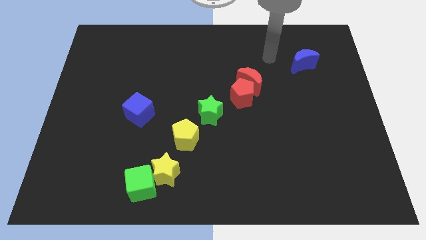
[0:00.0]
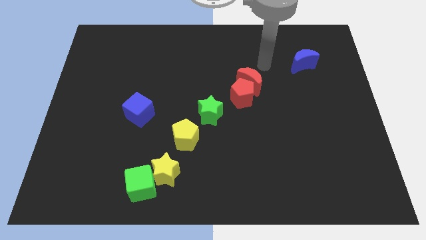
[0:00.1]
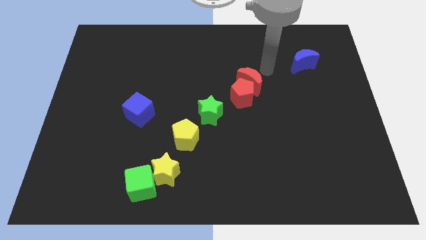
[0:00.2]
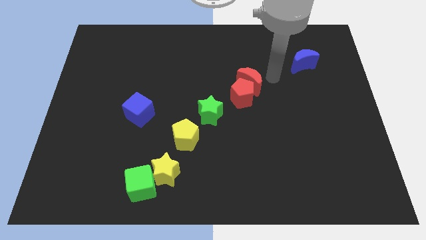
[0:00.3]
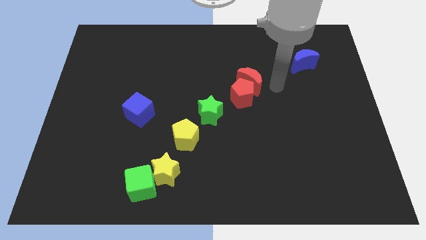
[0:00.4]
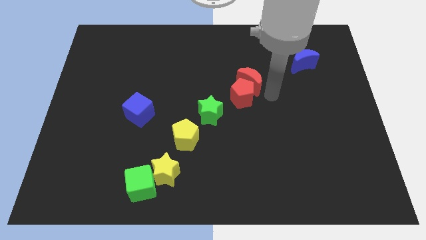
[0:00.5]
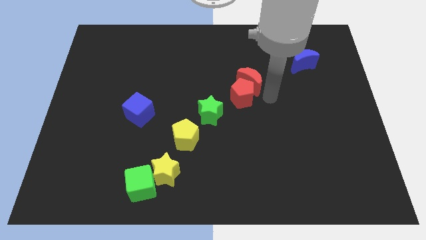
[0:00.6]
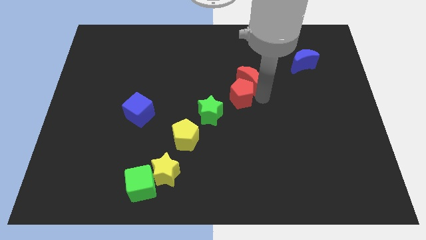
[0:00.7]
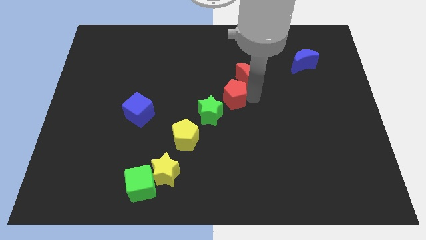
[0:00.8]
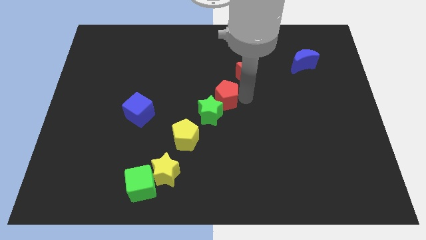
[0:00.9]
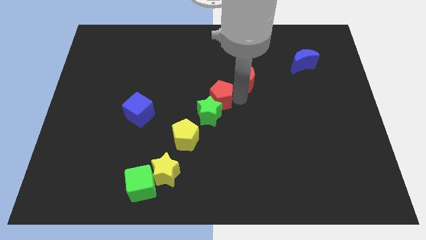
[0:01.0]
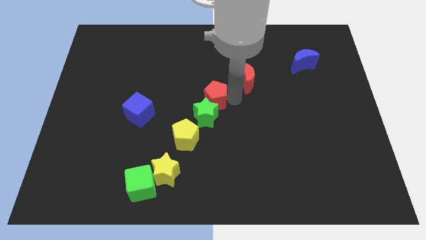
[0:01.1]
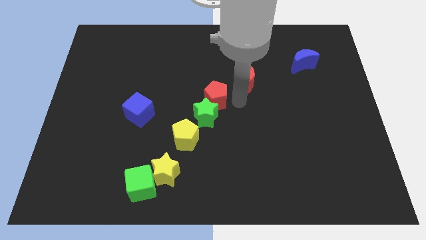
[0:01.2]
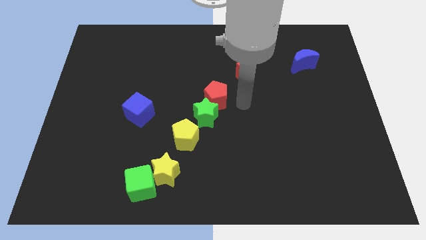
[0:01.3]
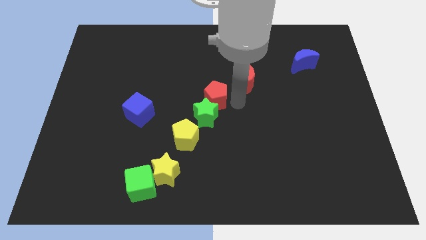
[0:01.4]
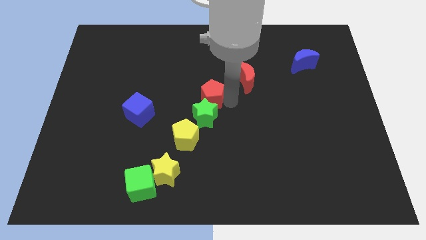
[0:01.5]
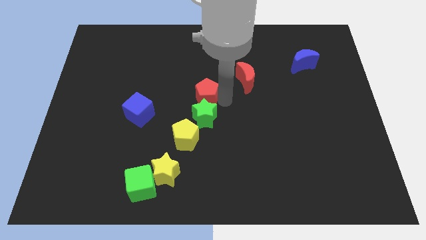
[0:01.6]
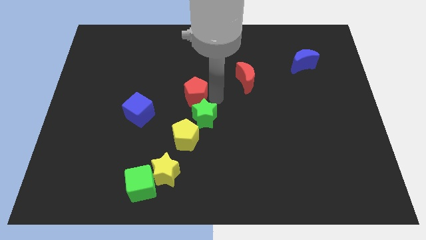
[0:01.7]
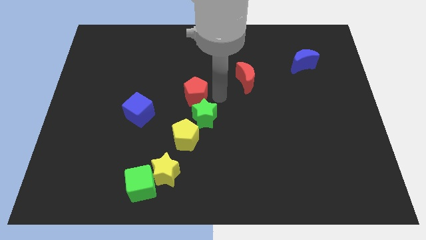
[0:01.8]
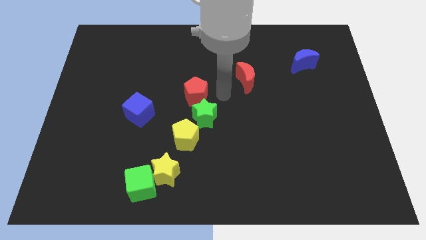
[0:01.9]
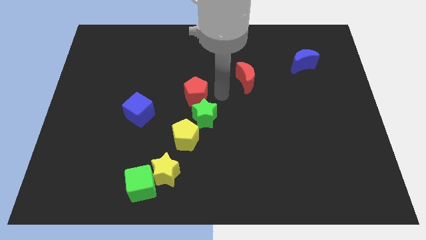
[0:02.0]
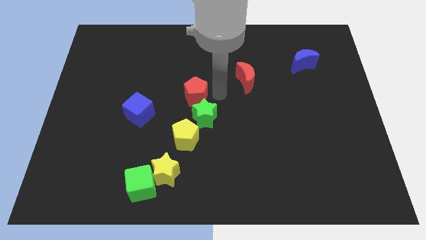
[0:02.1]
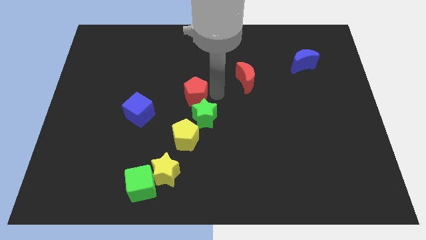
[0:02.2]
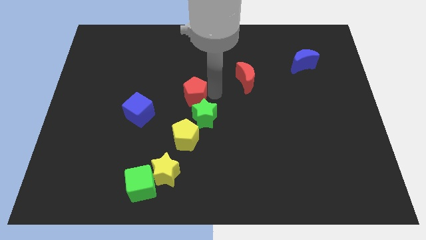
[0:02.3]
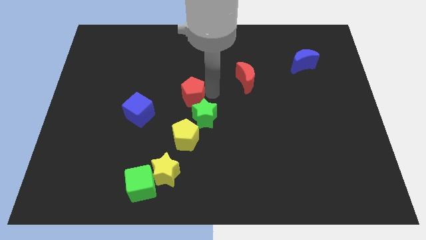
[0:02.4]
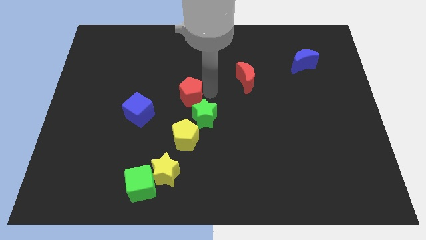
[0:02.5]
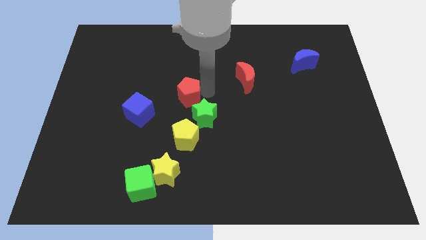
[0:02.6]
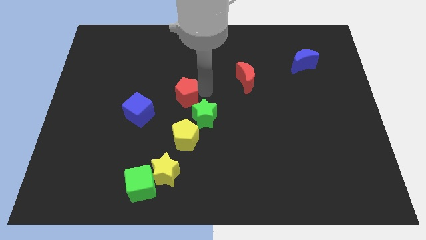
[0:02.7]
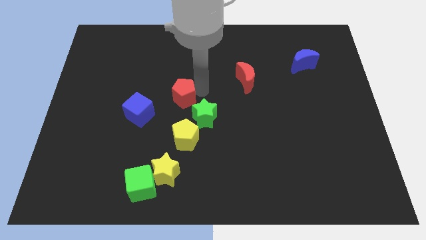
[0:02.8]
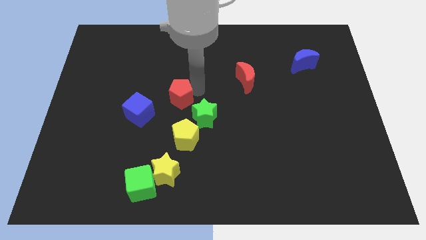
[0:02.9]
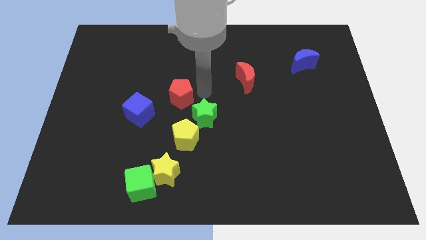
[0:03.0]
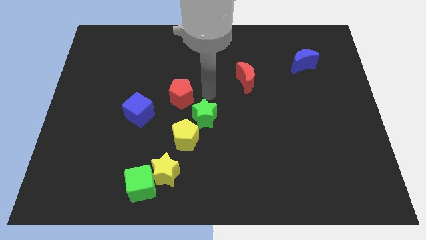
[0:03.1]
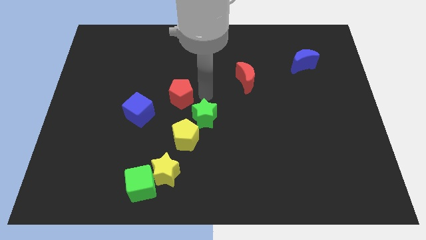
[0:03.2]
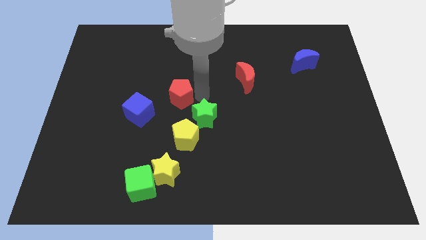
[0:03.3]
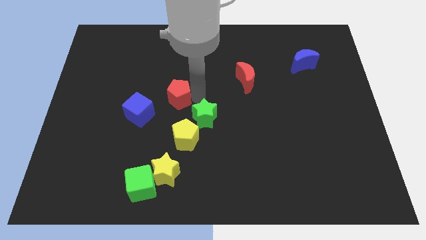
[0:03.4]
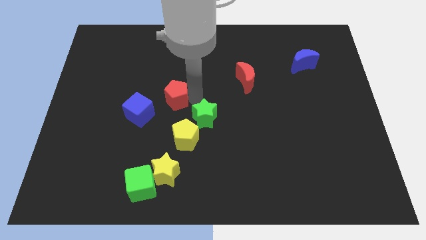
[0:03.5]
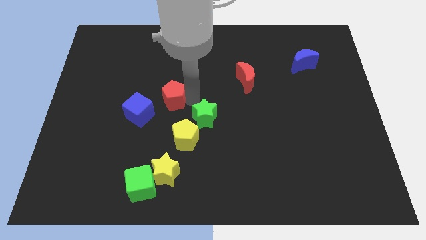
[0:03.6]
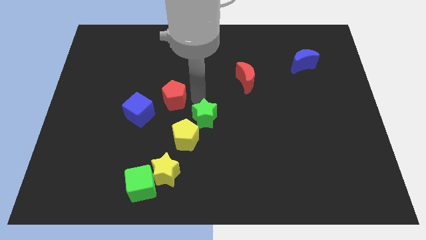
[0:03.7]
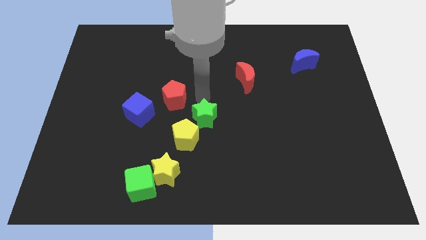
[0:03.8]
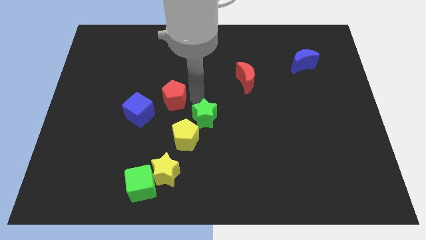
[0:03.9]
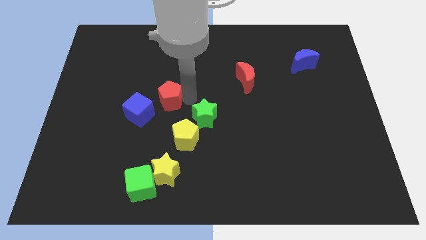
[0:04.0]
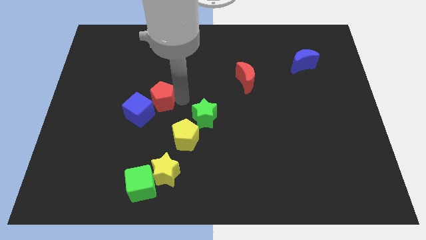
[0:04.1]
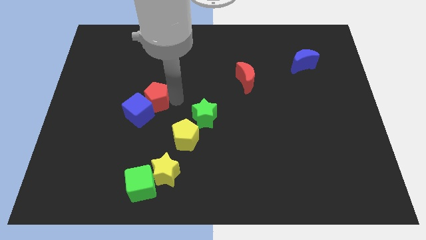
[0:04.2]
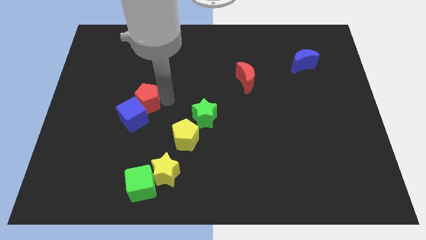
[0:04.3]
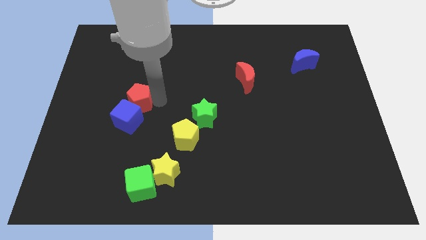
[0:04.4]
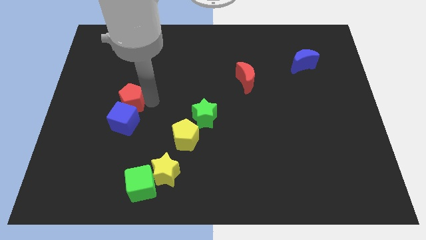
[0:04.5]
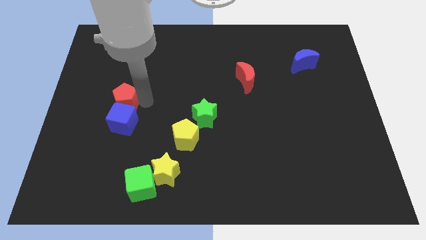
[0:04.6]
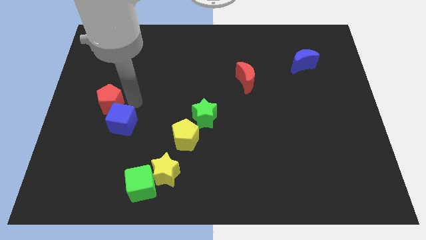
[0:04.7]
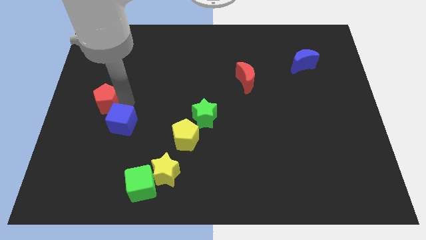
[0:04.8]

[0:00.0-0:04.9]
slide the red pentagon to the left side of the board
